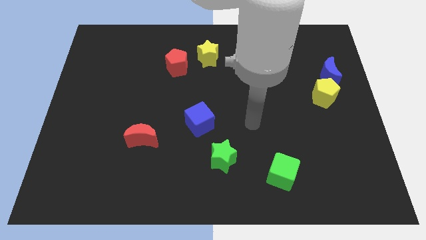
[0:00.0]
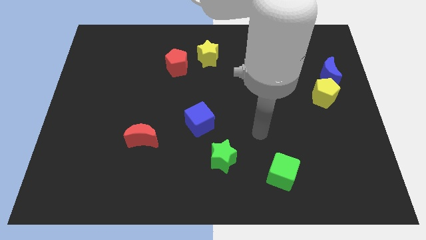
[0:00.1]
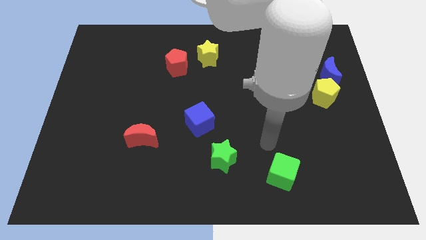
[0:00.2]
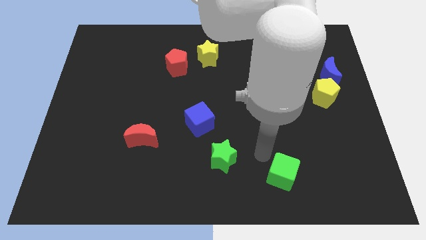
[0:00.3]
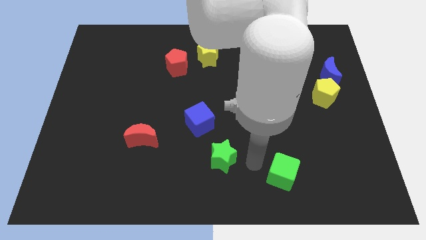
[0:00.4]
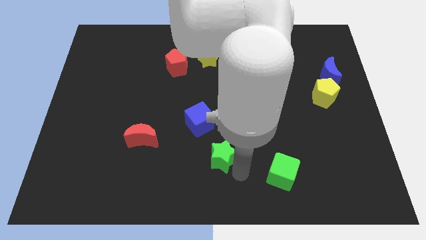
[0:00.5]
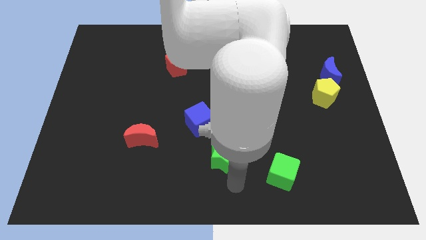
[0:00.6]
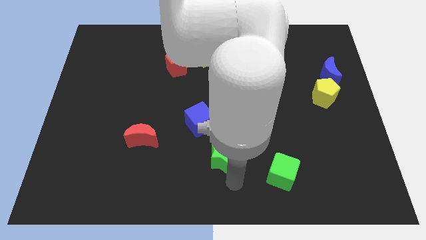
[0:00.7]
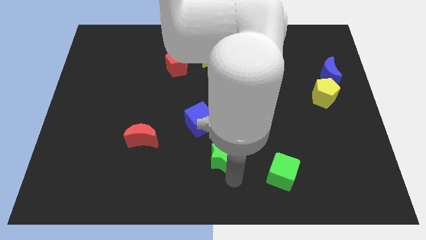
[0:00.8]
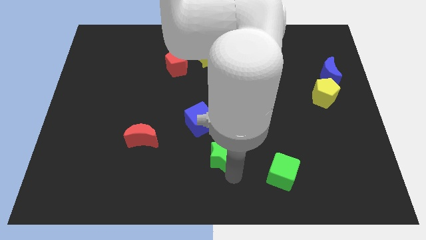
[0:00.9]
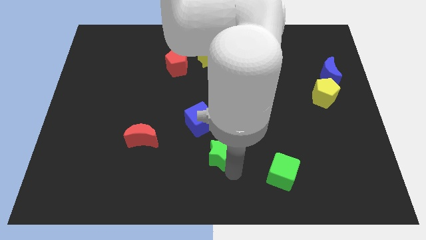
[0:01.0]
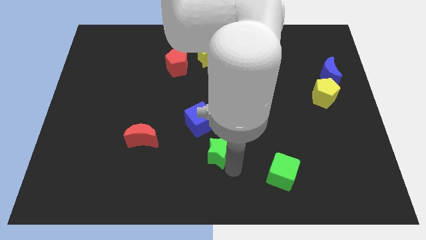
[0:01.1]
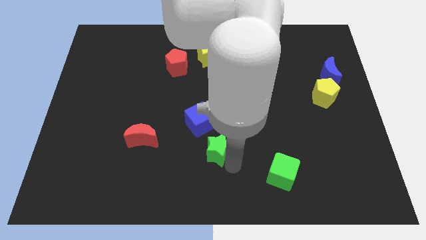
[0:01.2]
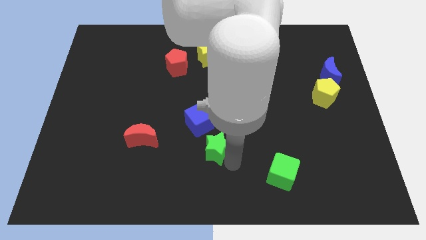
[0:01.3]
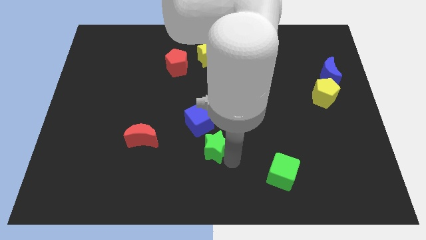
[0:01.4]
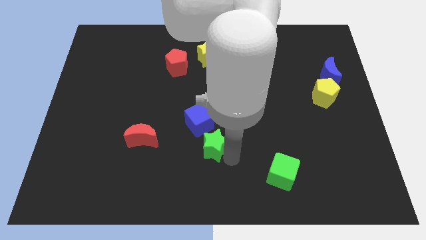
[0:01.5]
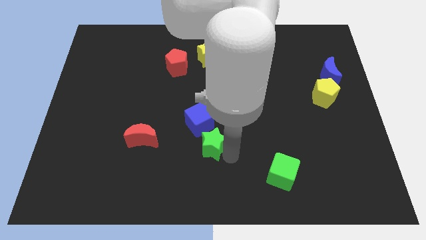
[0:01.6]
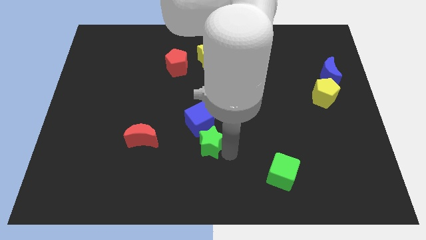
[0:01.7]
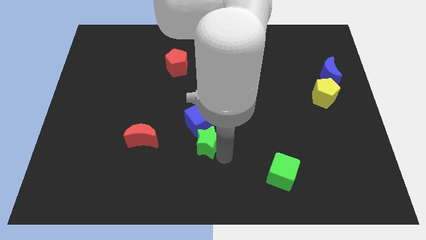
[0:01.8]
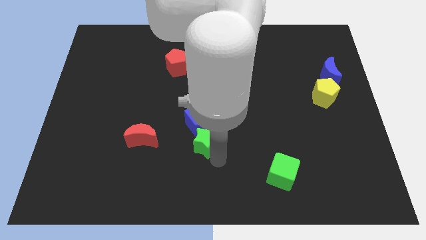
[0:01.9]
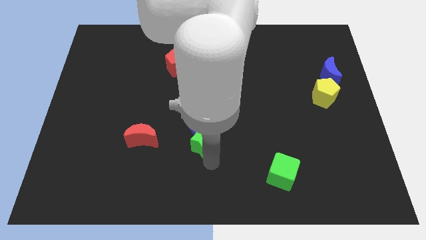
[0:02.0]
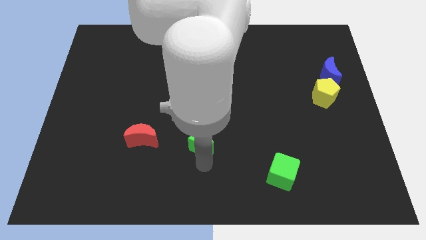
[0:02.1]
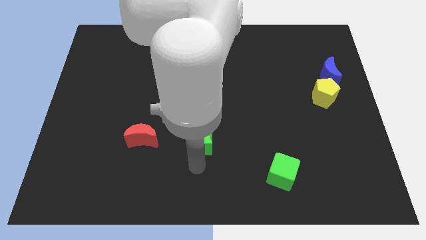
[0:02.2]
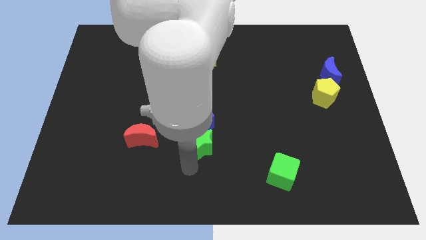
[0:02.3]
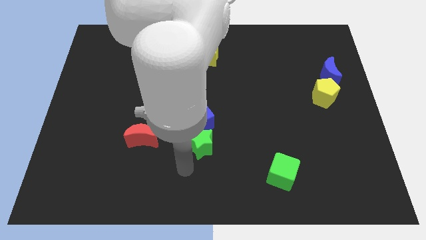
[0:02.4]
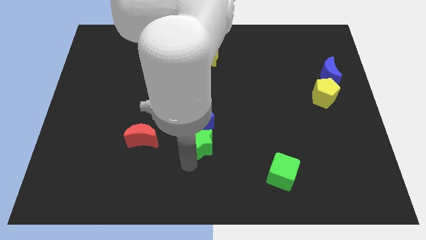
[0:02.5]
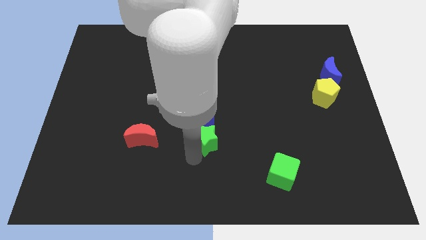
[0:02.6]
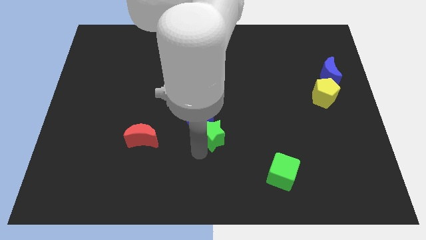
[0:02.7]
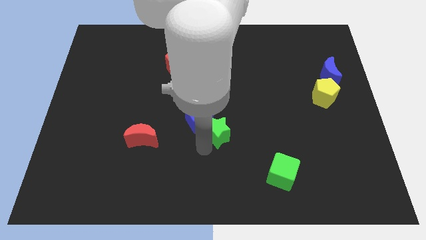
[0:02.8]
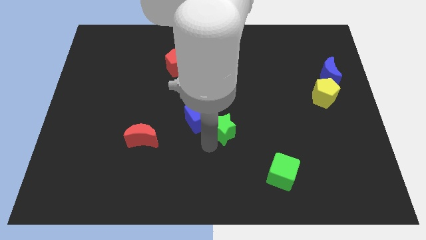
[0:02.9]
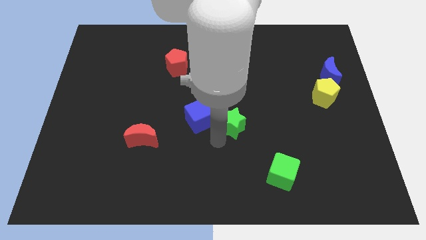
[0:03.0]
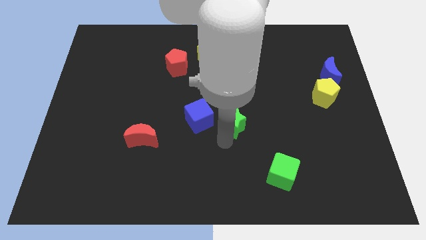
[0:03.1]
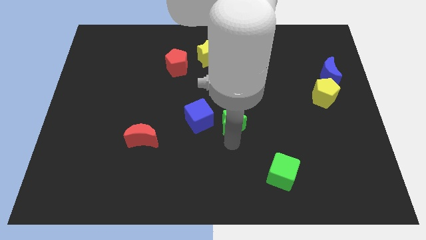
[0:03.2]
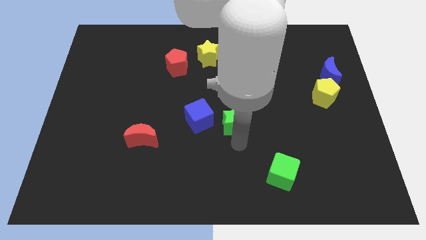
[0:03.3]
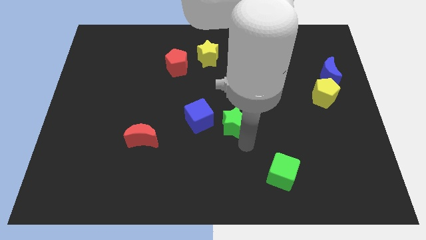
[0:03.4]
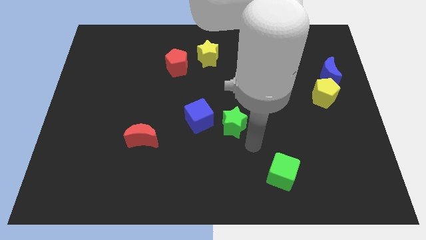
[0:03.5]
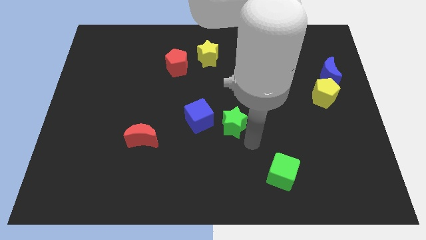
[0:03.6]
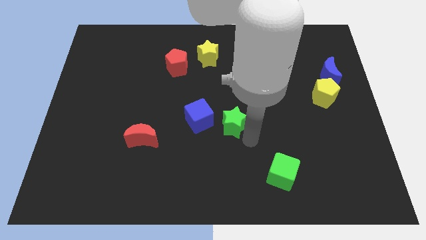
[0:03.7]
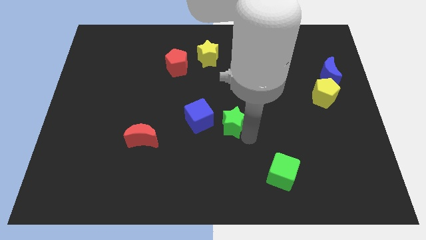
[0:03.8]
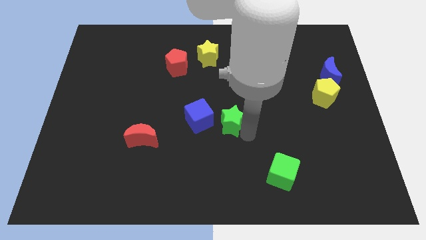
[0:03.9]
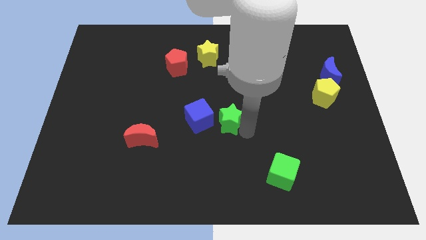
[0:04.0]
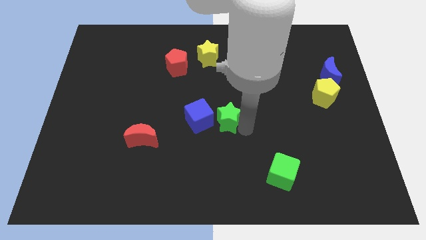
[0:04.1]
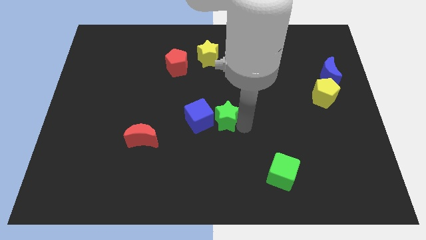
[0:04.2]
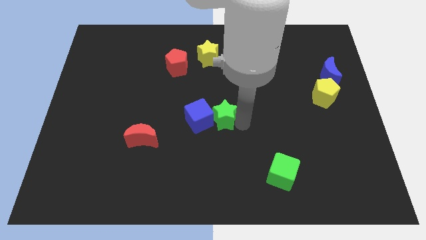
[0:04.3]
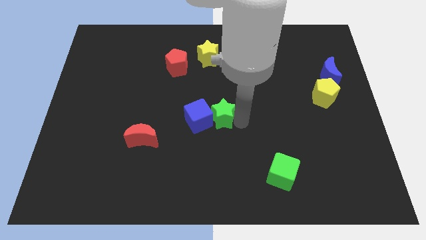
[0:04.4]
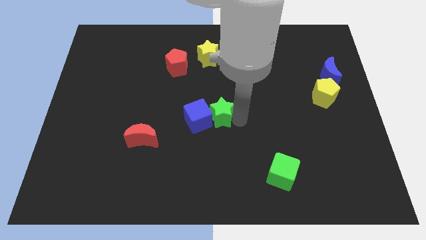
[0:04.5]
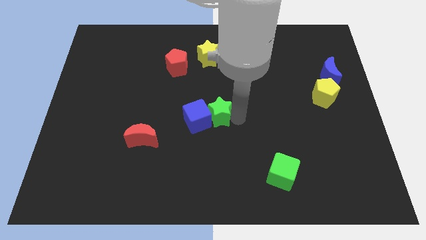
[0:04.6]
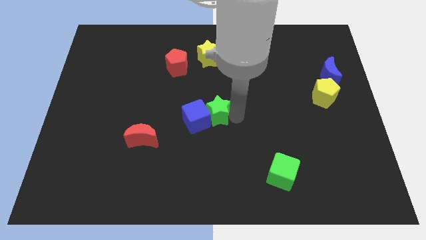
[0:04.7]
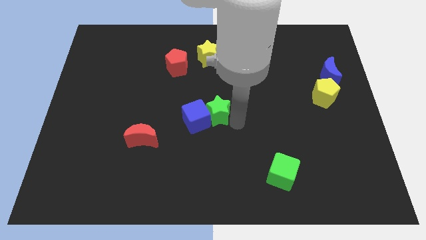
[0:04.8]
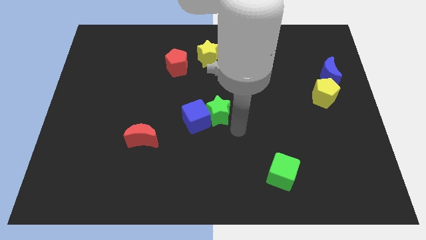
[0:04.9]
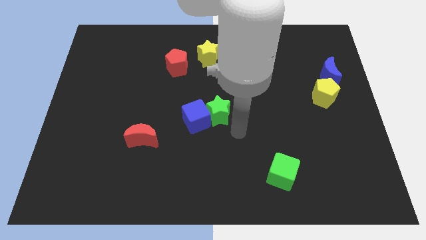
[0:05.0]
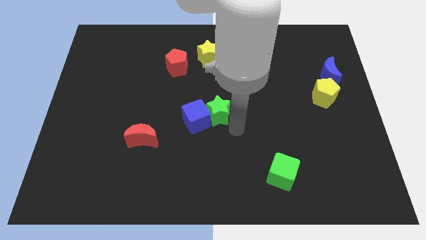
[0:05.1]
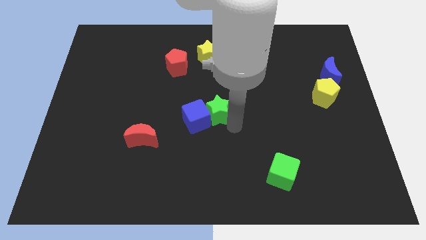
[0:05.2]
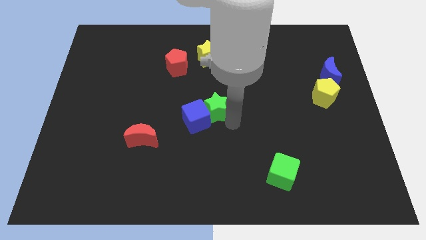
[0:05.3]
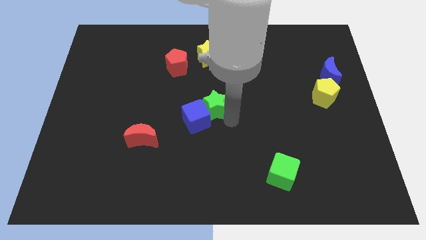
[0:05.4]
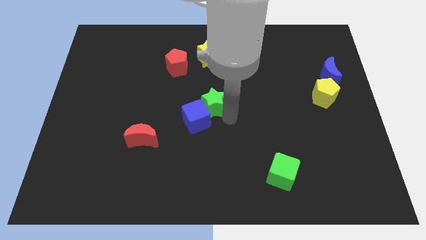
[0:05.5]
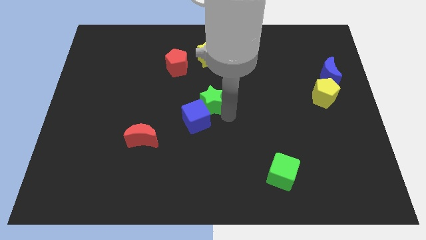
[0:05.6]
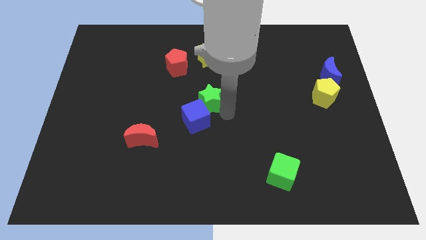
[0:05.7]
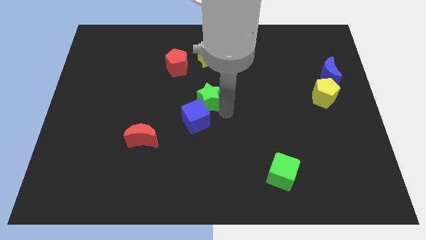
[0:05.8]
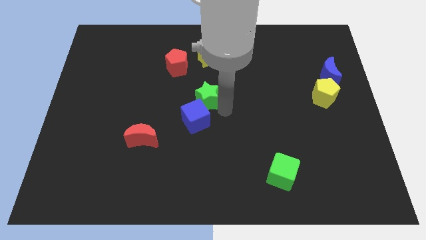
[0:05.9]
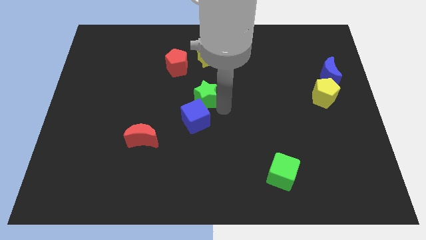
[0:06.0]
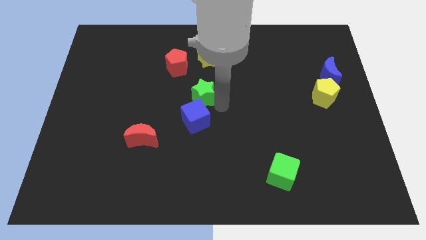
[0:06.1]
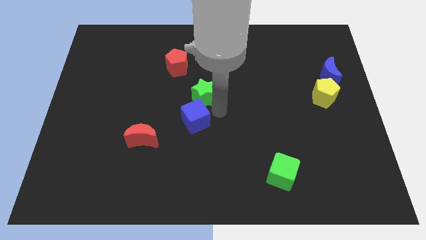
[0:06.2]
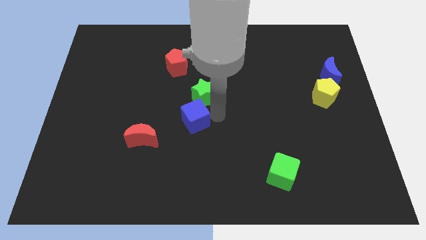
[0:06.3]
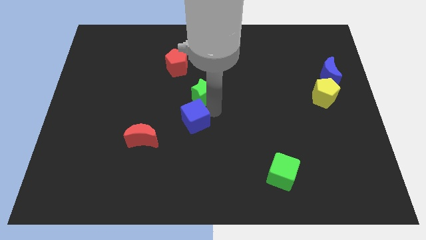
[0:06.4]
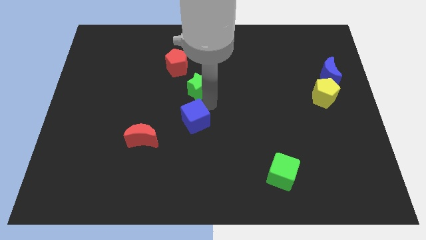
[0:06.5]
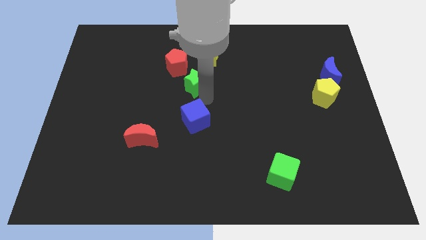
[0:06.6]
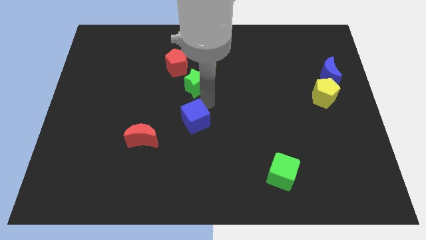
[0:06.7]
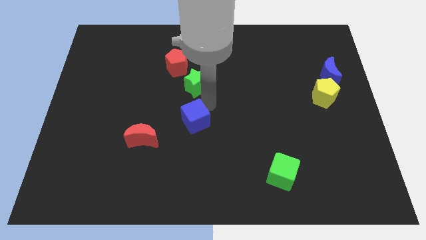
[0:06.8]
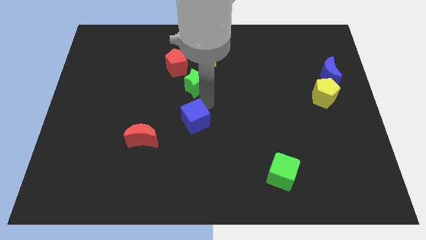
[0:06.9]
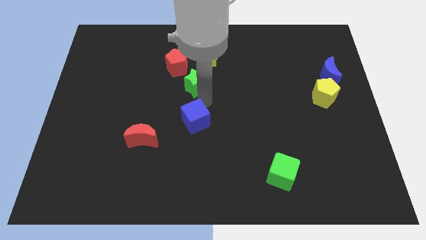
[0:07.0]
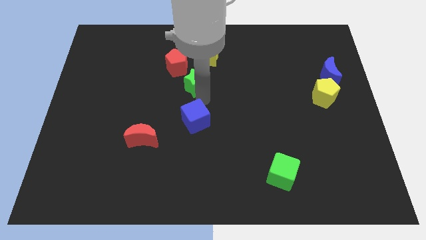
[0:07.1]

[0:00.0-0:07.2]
put the green star to the bottom left of the yellow star

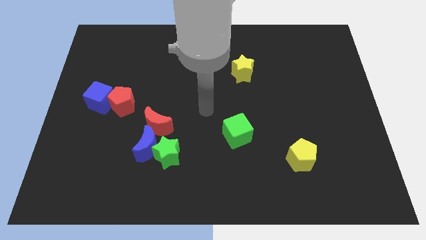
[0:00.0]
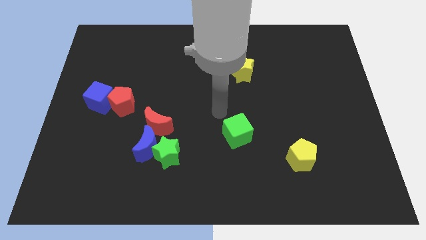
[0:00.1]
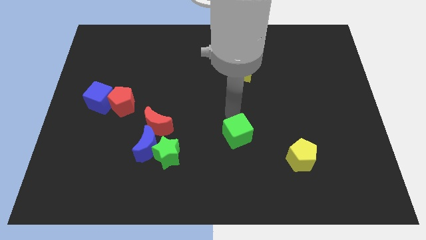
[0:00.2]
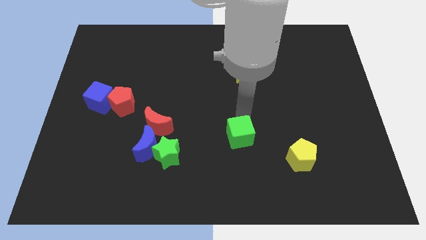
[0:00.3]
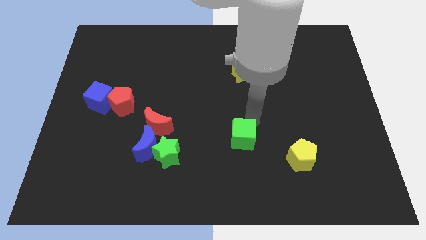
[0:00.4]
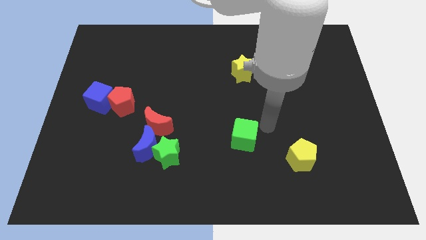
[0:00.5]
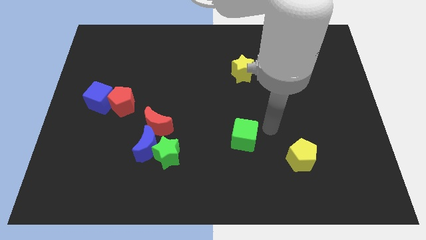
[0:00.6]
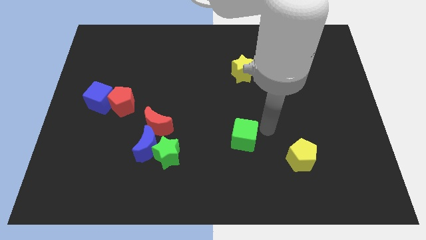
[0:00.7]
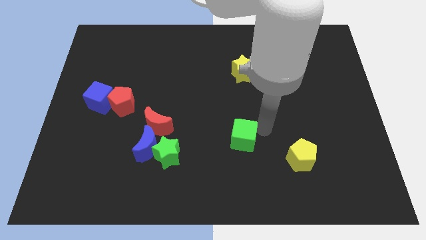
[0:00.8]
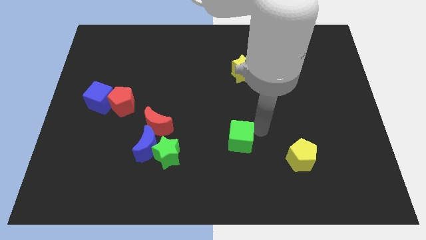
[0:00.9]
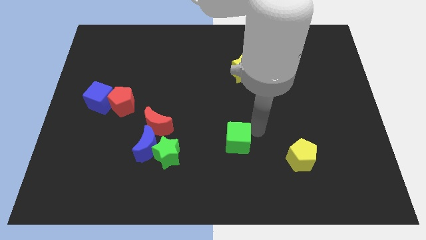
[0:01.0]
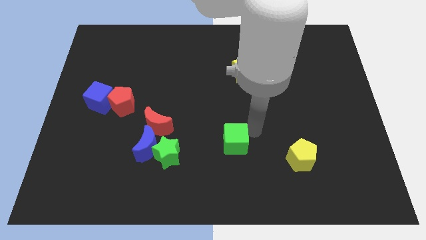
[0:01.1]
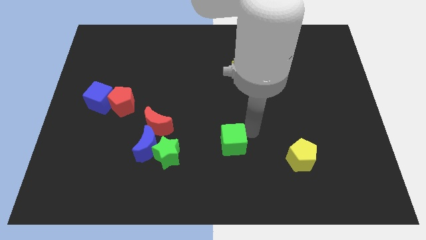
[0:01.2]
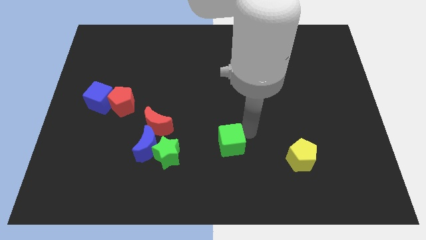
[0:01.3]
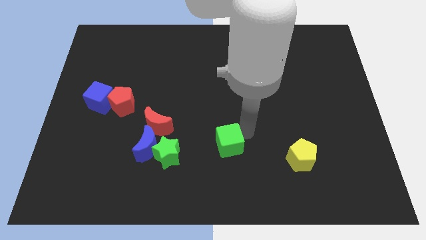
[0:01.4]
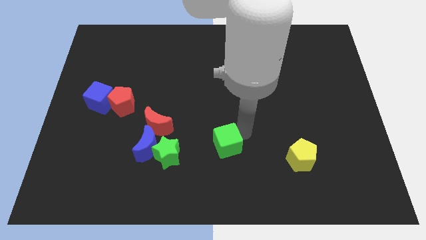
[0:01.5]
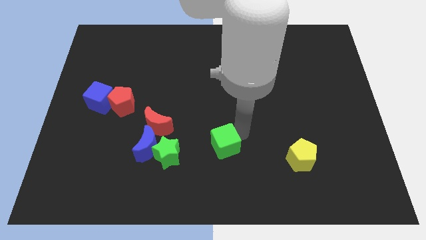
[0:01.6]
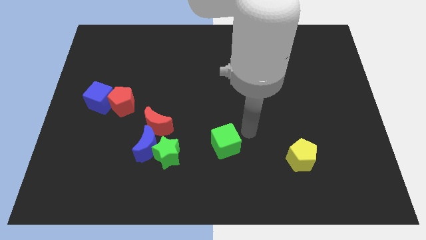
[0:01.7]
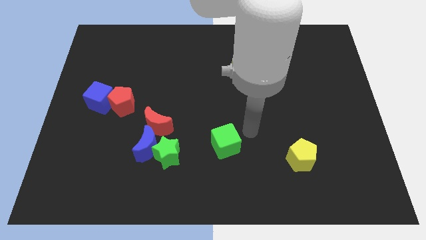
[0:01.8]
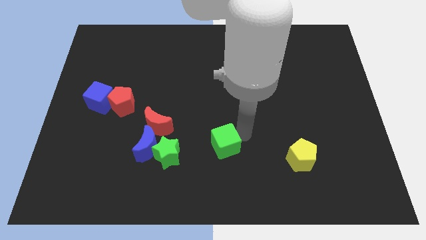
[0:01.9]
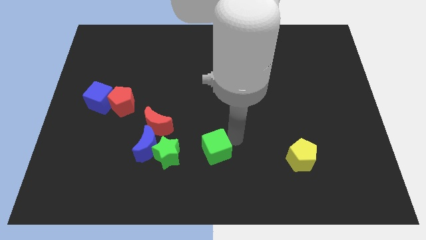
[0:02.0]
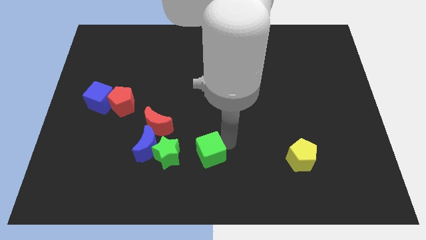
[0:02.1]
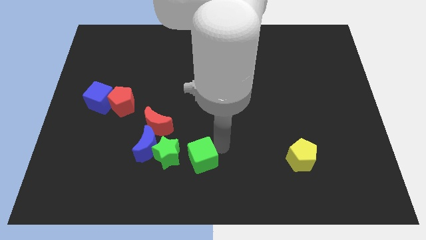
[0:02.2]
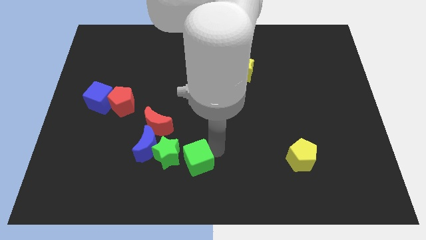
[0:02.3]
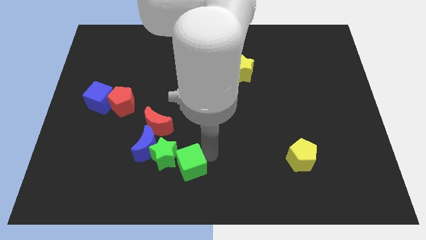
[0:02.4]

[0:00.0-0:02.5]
move the green cube to the bottom right of the blue moon
